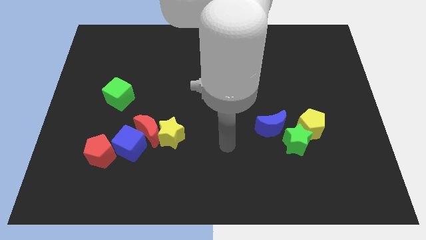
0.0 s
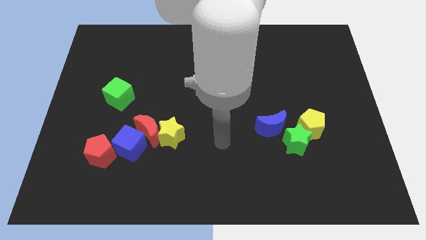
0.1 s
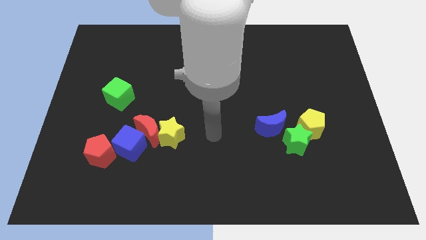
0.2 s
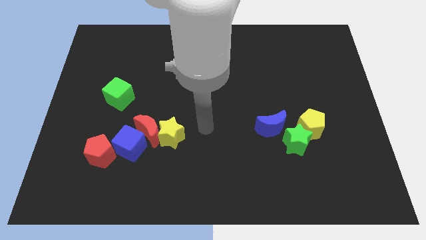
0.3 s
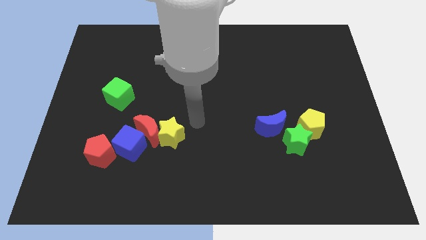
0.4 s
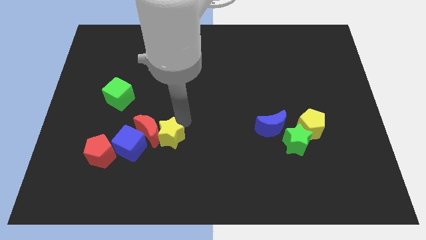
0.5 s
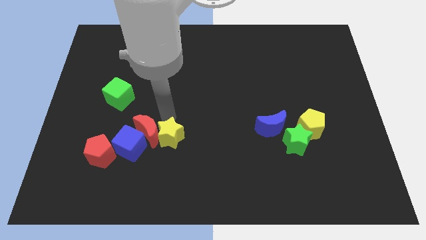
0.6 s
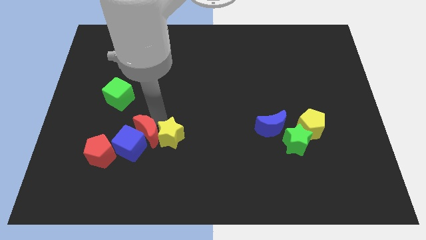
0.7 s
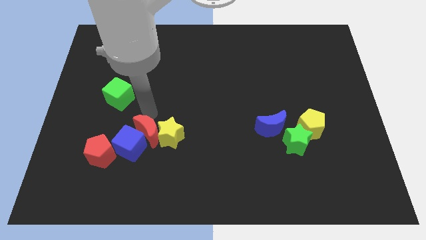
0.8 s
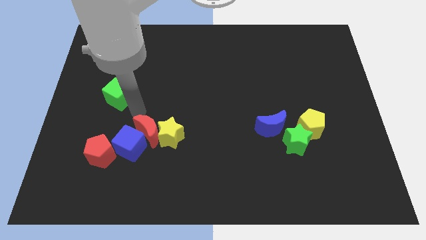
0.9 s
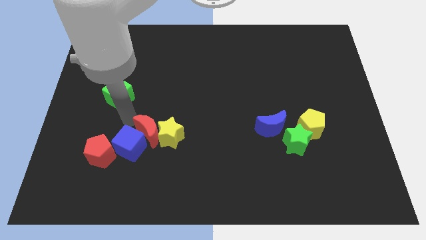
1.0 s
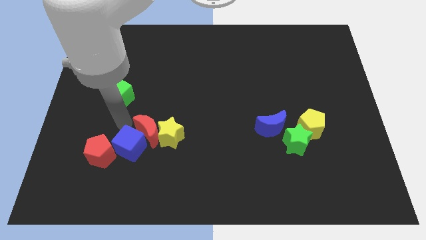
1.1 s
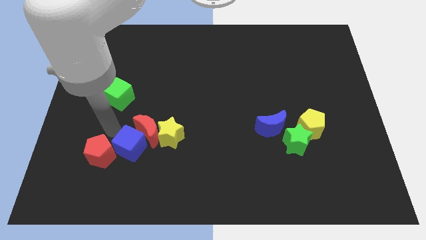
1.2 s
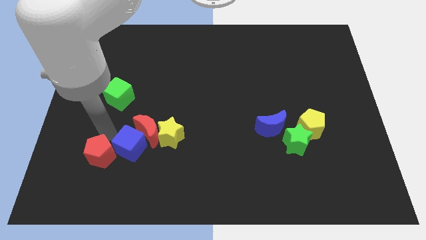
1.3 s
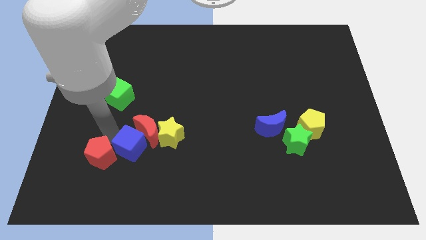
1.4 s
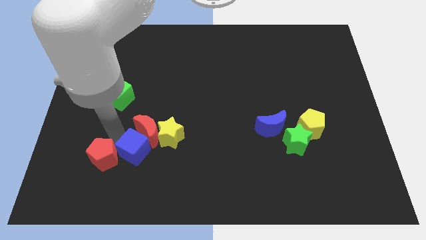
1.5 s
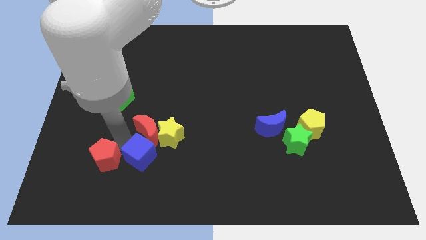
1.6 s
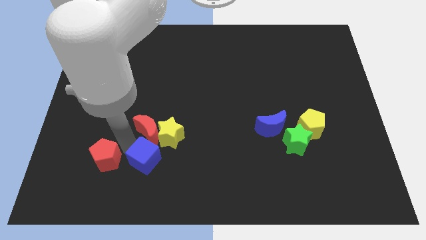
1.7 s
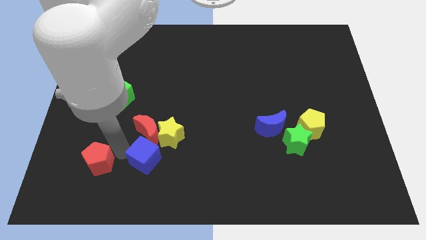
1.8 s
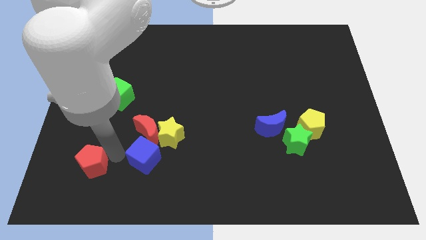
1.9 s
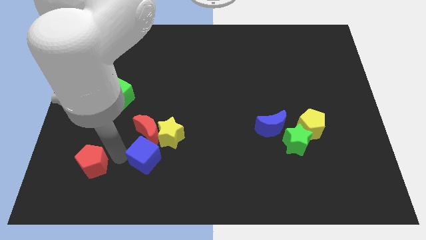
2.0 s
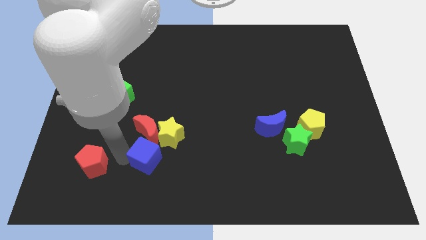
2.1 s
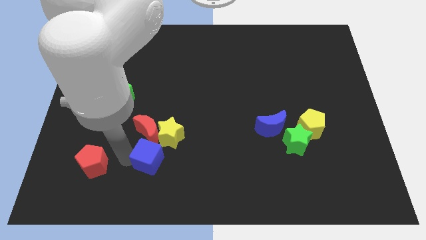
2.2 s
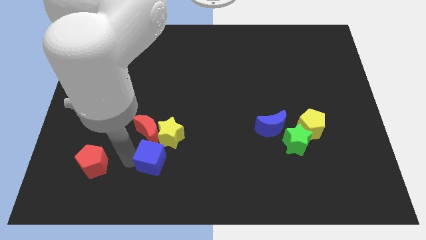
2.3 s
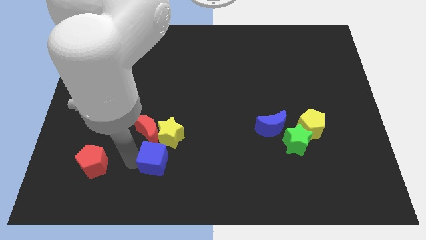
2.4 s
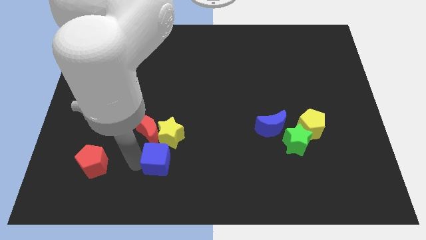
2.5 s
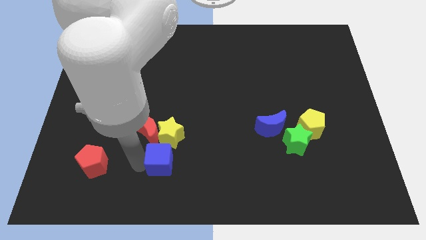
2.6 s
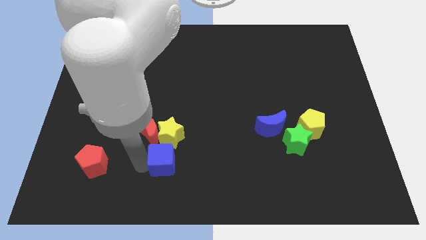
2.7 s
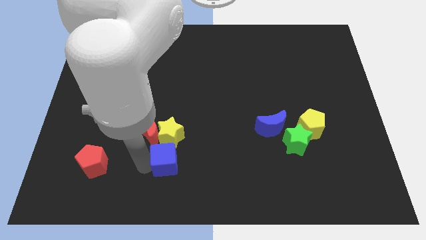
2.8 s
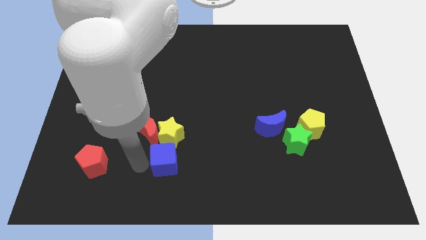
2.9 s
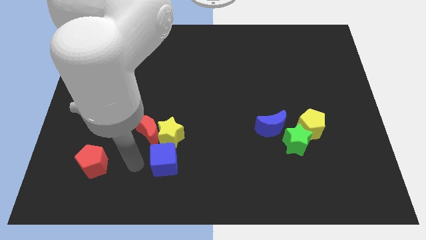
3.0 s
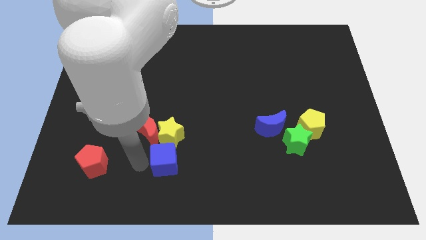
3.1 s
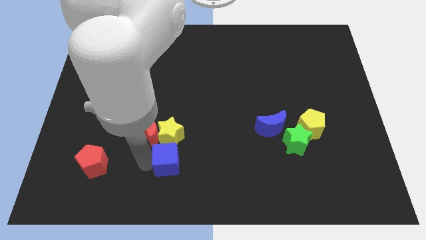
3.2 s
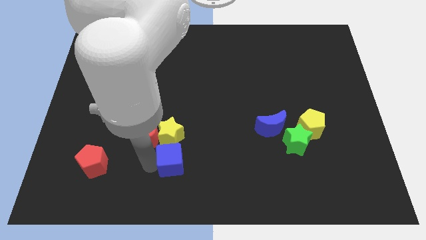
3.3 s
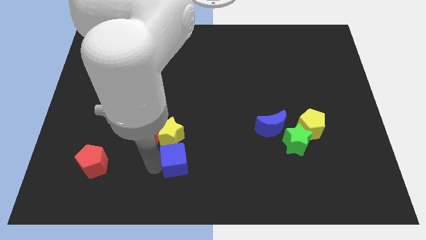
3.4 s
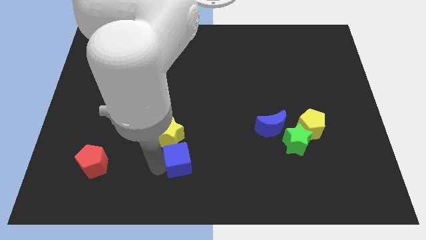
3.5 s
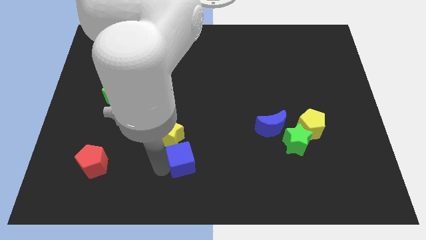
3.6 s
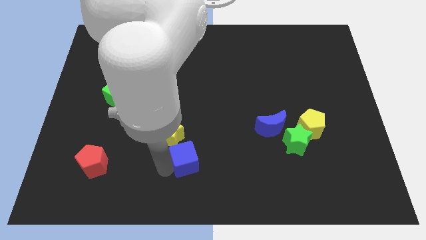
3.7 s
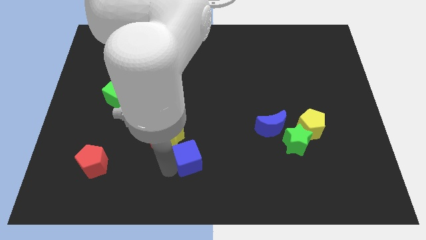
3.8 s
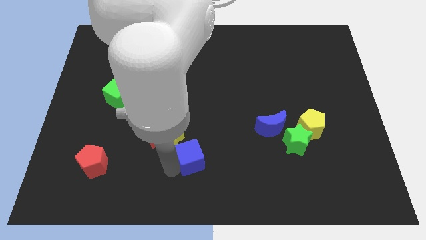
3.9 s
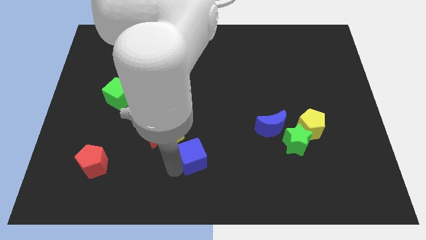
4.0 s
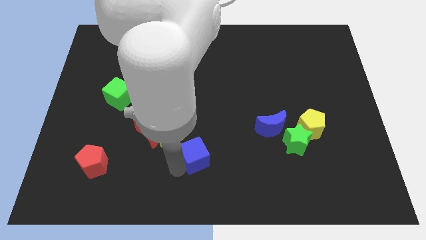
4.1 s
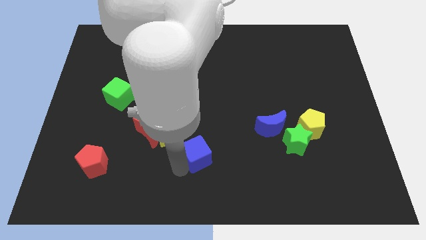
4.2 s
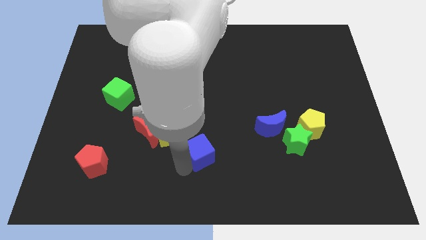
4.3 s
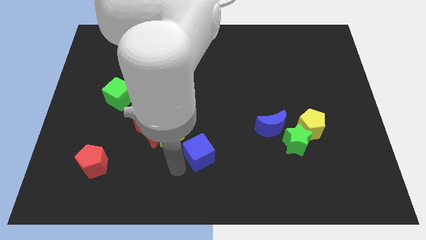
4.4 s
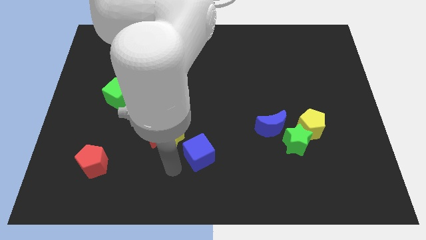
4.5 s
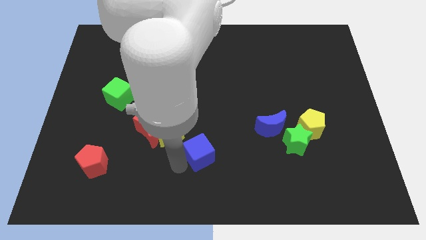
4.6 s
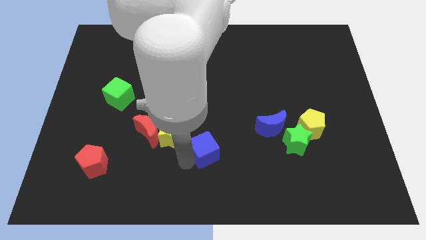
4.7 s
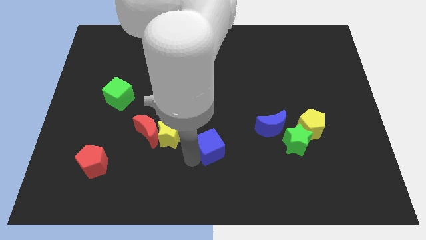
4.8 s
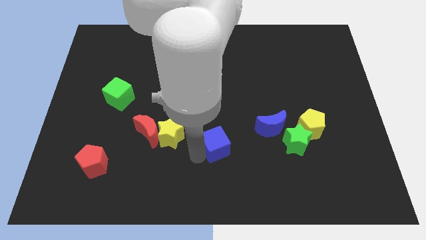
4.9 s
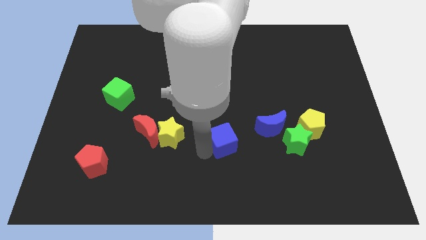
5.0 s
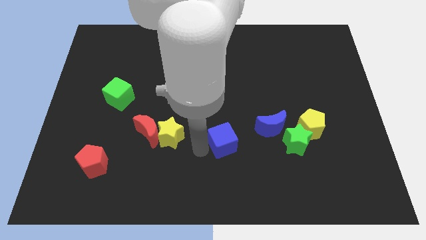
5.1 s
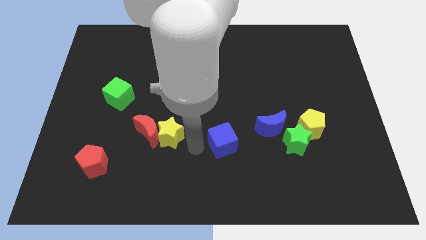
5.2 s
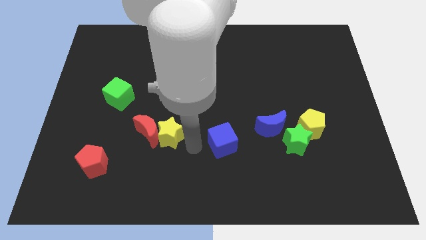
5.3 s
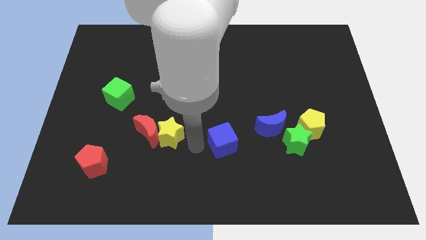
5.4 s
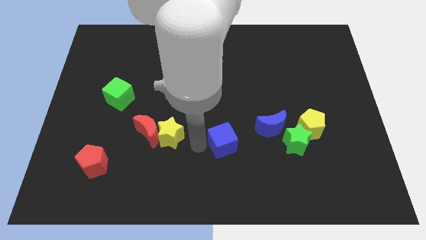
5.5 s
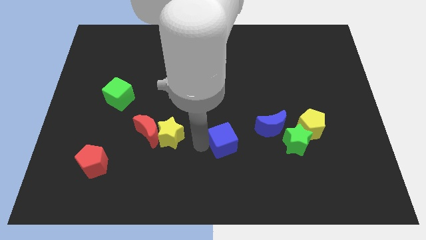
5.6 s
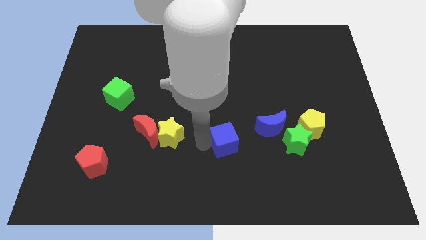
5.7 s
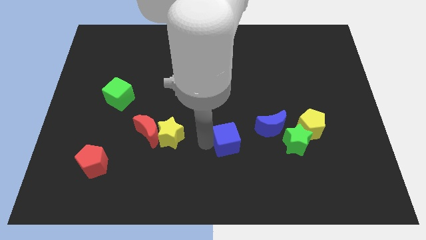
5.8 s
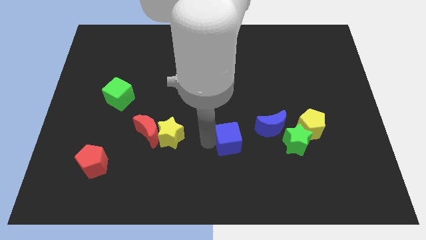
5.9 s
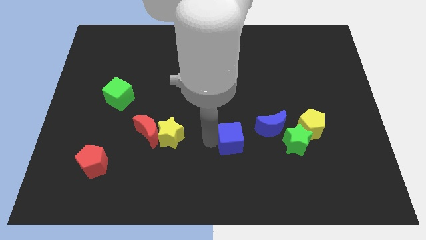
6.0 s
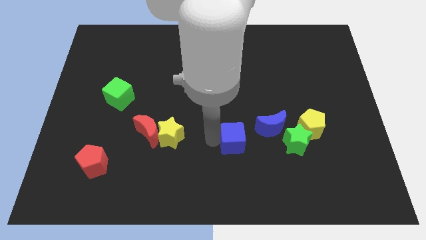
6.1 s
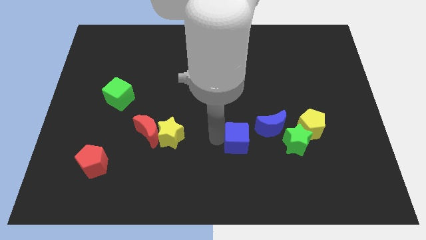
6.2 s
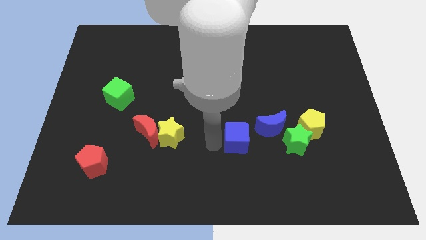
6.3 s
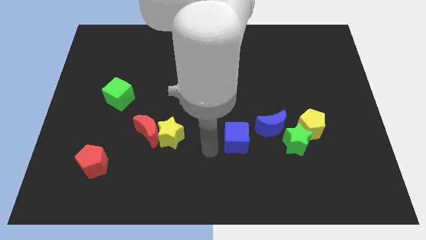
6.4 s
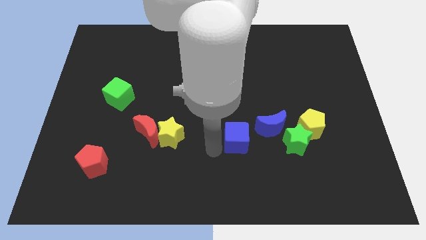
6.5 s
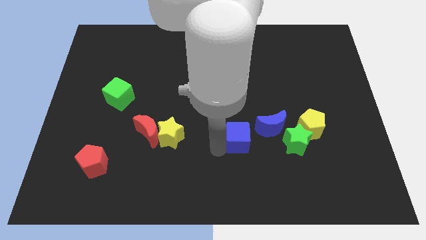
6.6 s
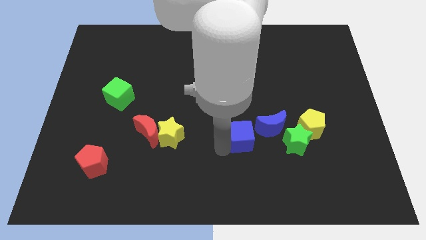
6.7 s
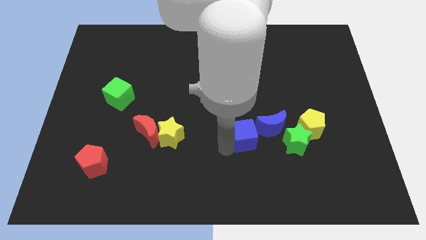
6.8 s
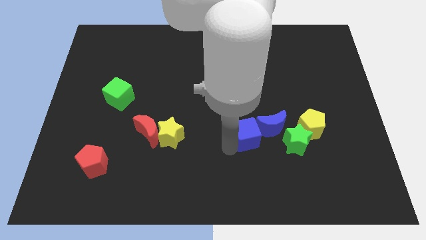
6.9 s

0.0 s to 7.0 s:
push the blue cube to the blue moon
